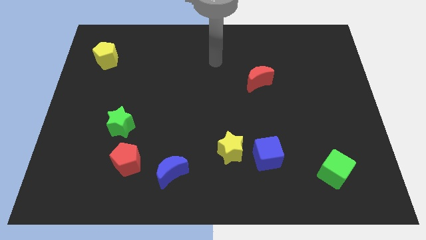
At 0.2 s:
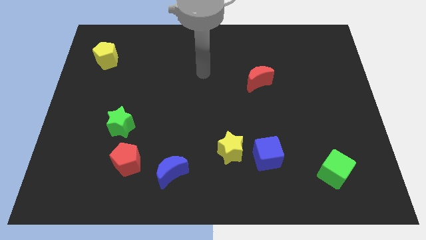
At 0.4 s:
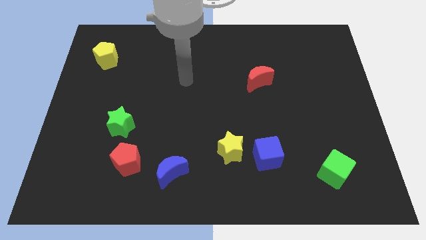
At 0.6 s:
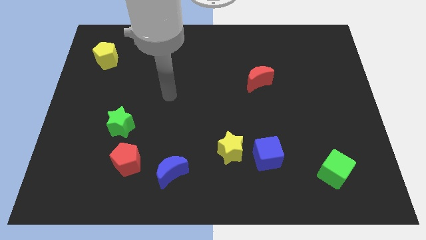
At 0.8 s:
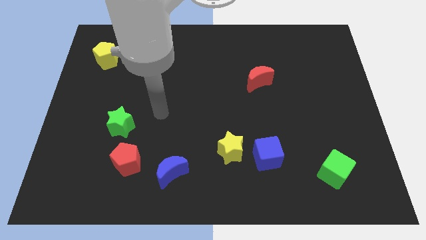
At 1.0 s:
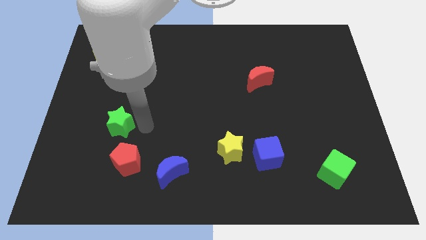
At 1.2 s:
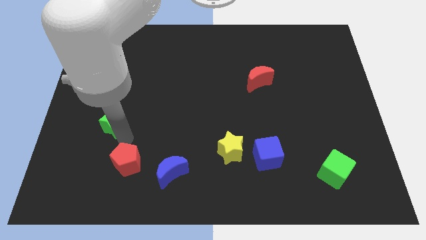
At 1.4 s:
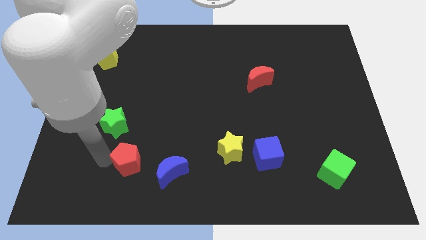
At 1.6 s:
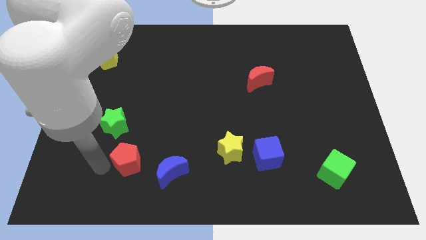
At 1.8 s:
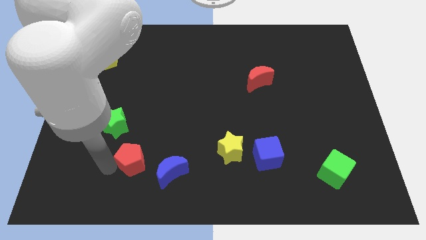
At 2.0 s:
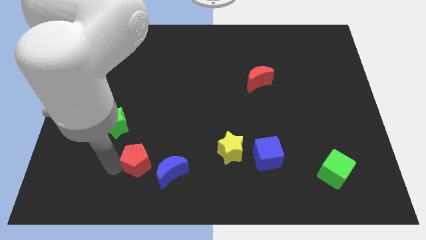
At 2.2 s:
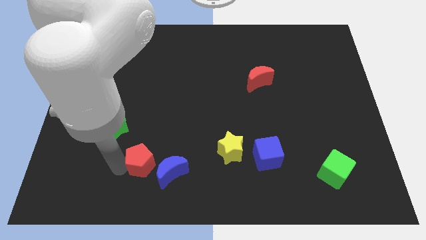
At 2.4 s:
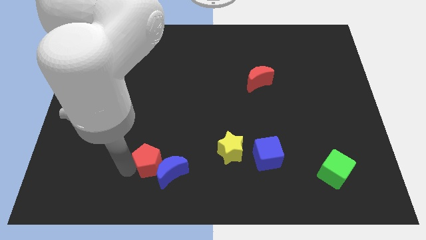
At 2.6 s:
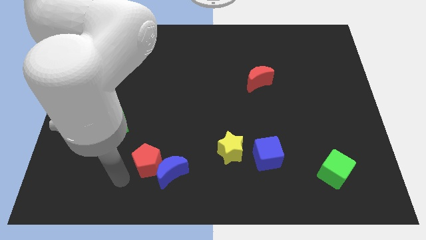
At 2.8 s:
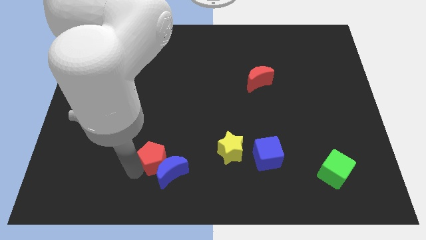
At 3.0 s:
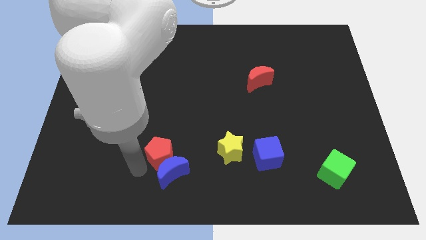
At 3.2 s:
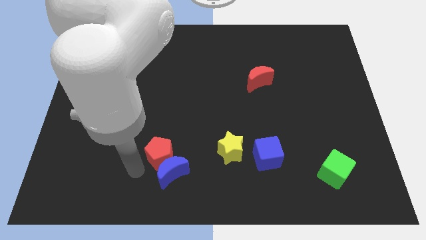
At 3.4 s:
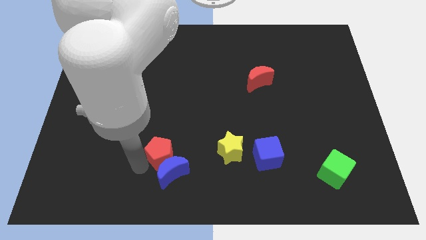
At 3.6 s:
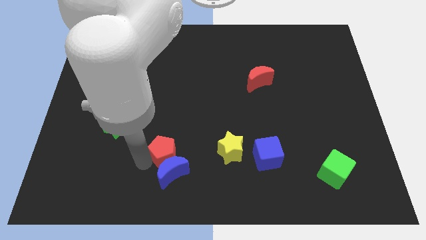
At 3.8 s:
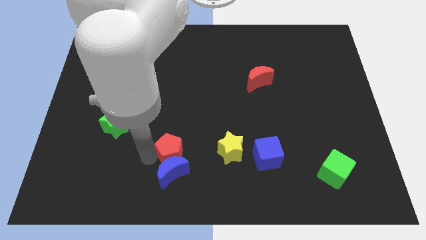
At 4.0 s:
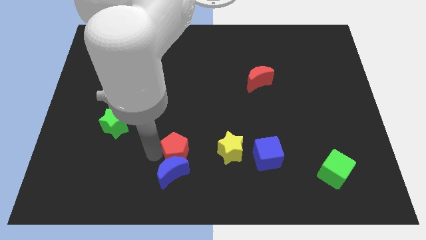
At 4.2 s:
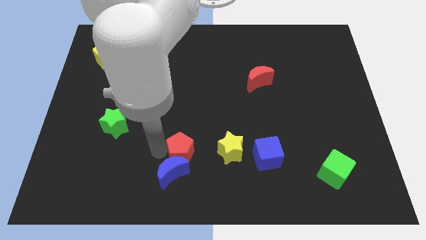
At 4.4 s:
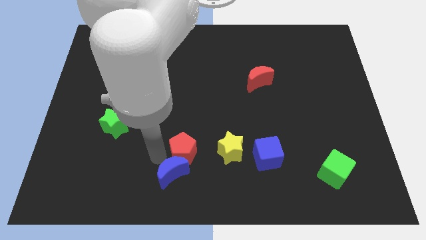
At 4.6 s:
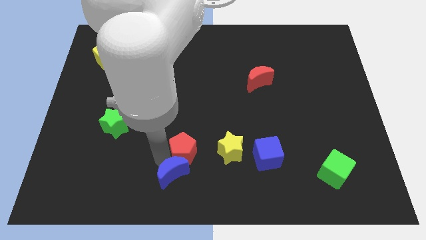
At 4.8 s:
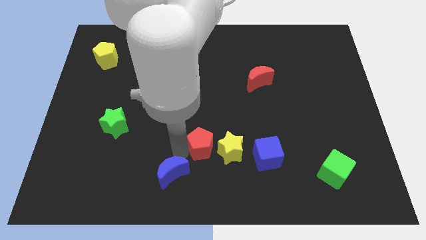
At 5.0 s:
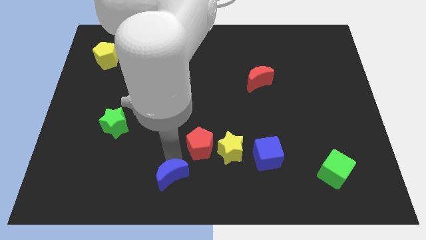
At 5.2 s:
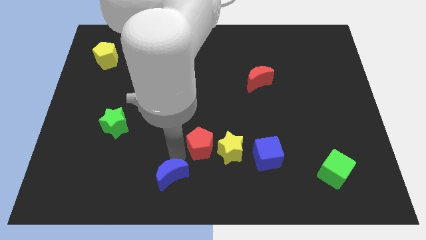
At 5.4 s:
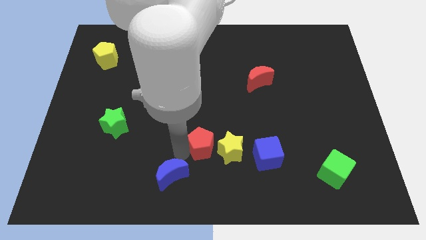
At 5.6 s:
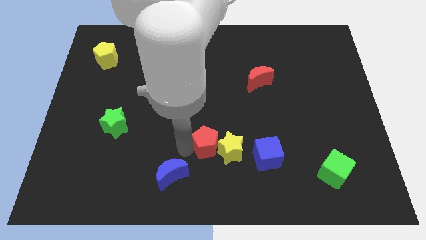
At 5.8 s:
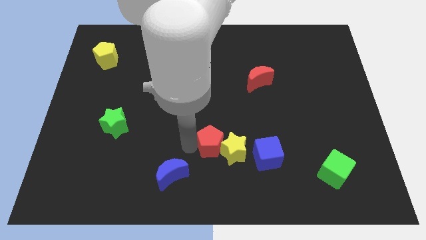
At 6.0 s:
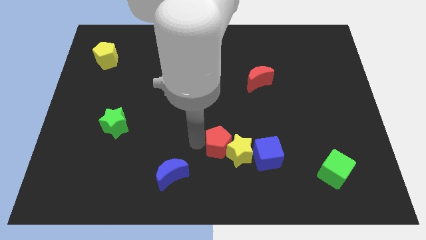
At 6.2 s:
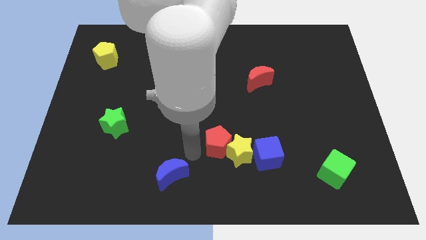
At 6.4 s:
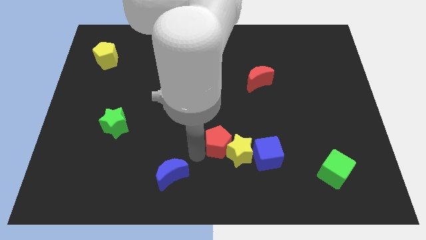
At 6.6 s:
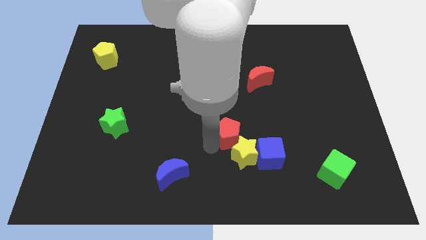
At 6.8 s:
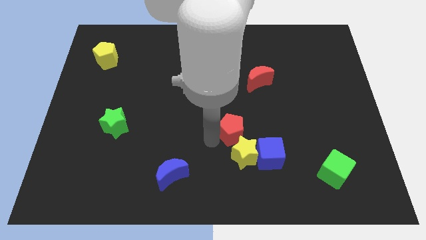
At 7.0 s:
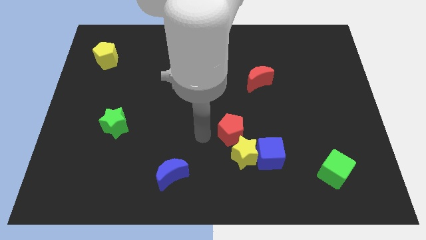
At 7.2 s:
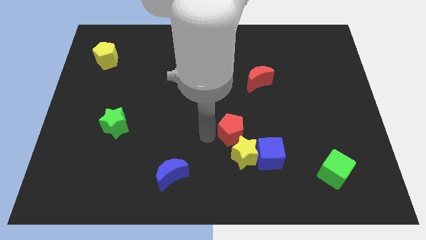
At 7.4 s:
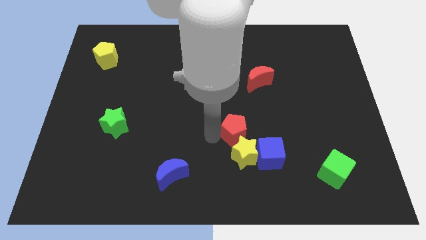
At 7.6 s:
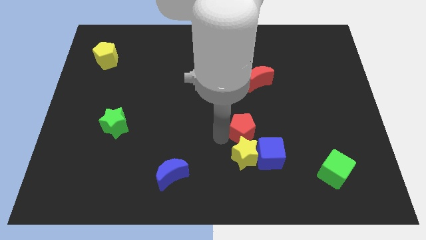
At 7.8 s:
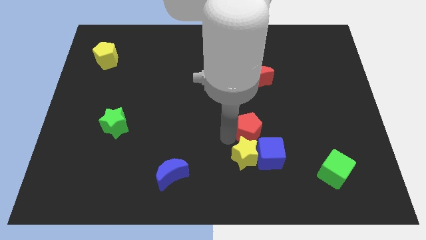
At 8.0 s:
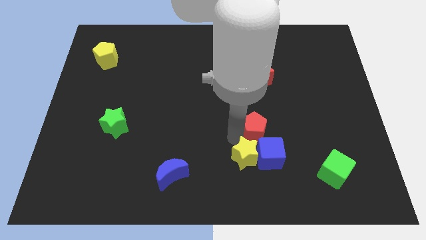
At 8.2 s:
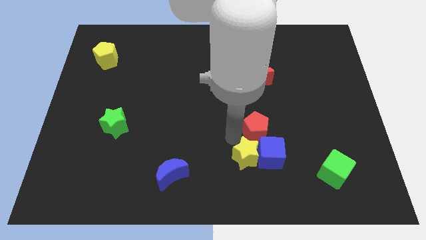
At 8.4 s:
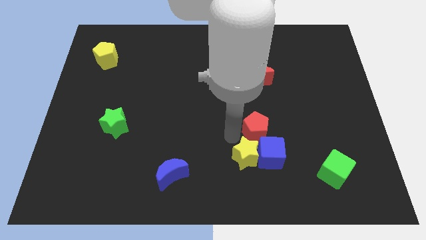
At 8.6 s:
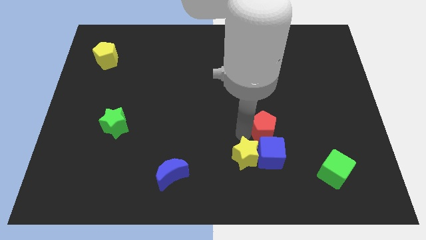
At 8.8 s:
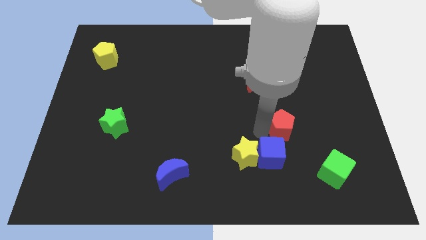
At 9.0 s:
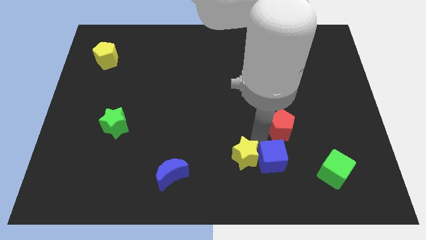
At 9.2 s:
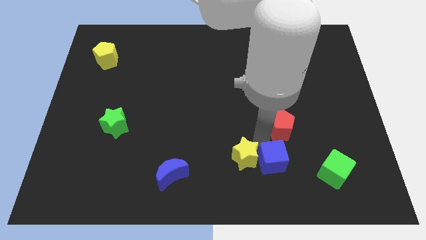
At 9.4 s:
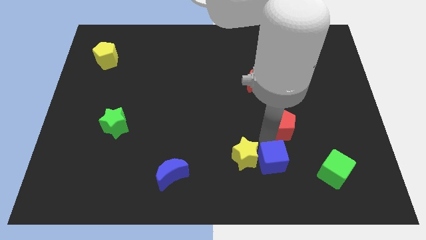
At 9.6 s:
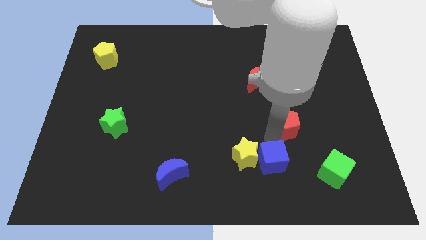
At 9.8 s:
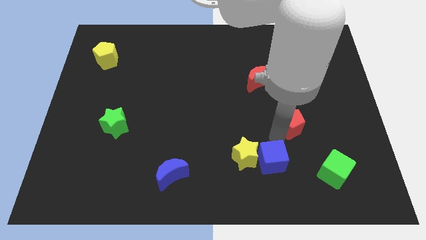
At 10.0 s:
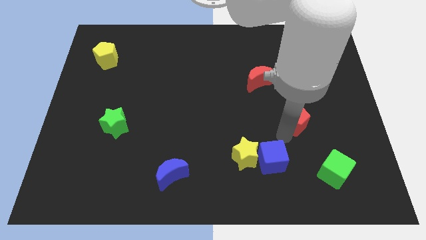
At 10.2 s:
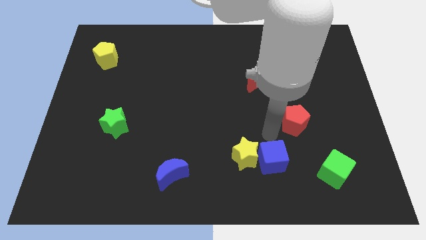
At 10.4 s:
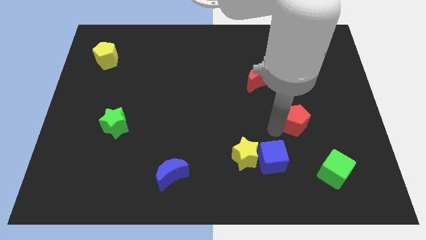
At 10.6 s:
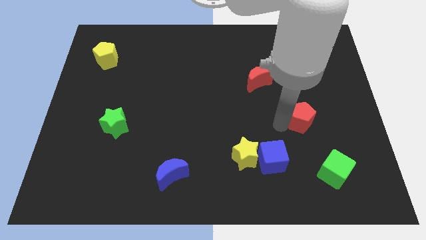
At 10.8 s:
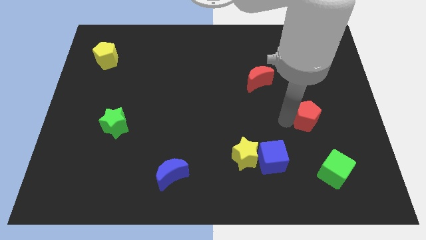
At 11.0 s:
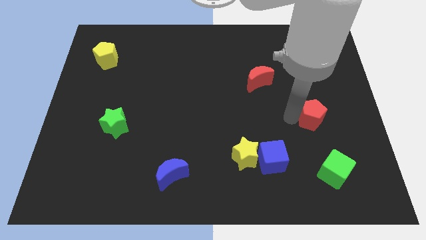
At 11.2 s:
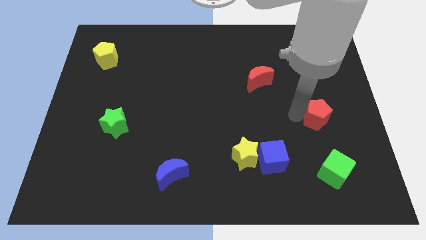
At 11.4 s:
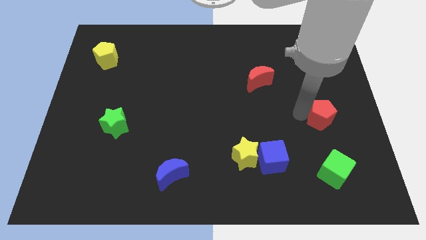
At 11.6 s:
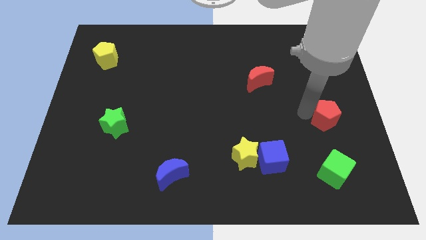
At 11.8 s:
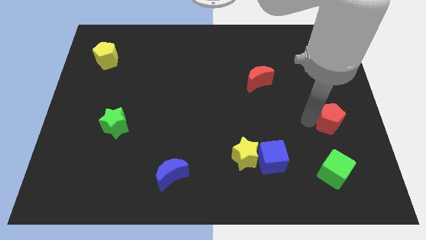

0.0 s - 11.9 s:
move the red pentagon to the right side of the board

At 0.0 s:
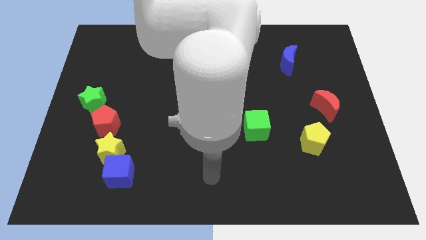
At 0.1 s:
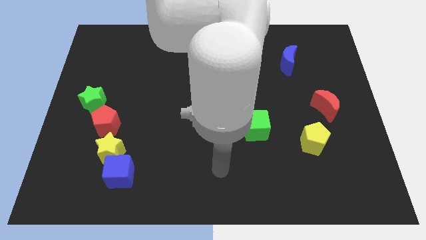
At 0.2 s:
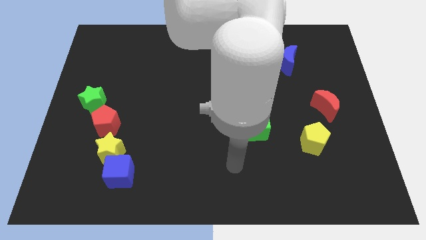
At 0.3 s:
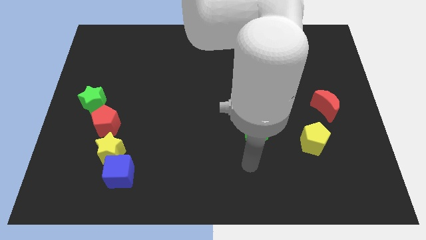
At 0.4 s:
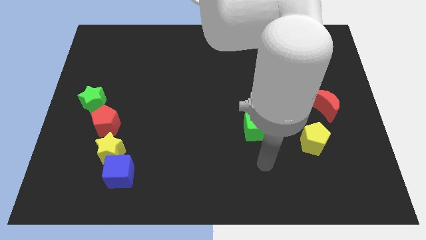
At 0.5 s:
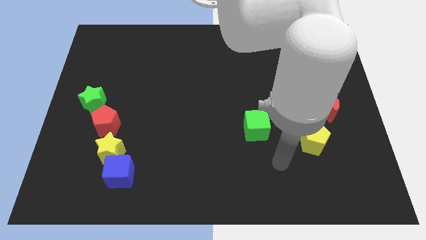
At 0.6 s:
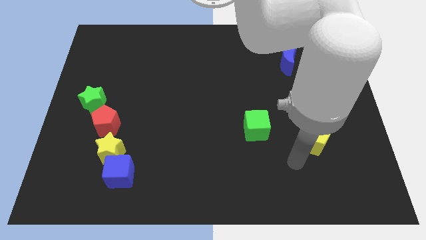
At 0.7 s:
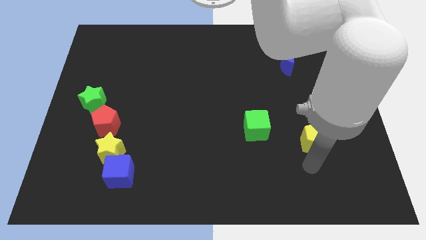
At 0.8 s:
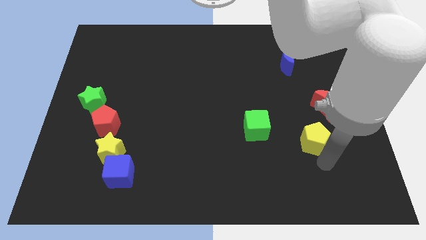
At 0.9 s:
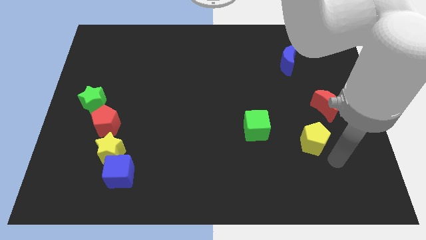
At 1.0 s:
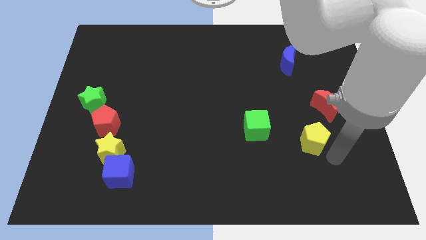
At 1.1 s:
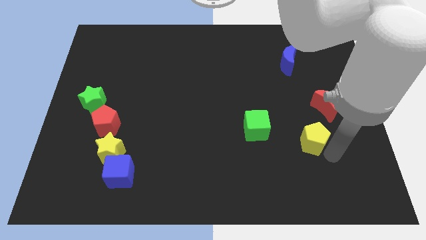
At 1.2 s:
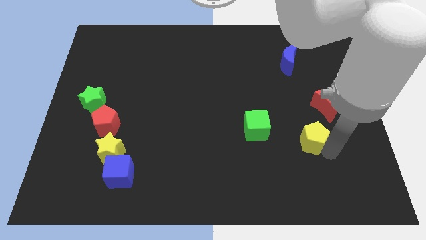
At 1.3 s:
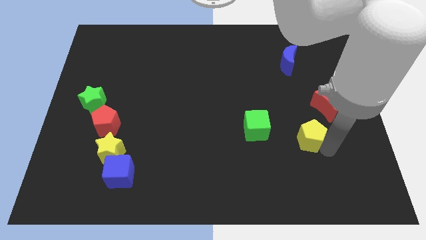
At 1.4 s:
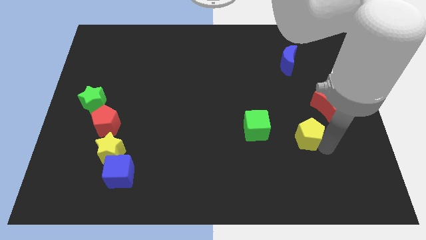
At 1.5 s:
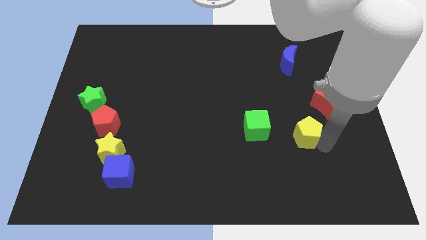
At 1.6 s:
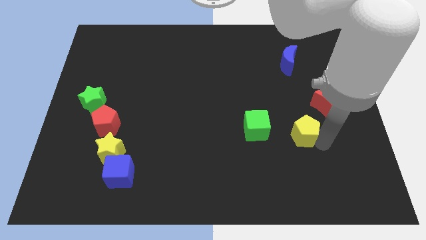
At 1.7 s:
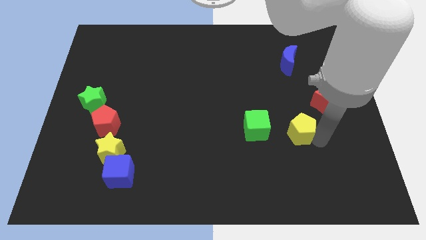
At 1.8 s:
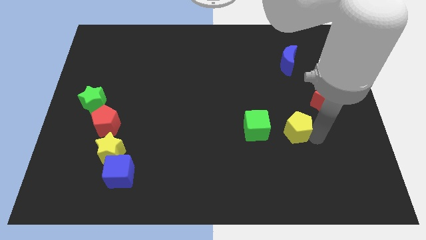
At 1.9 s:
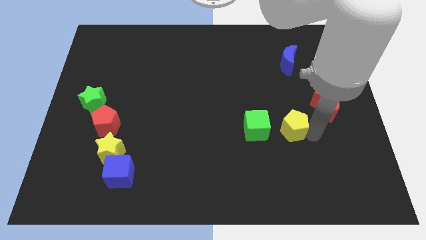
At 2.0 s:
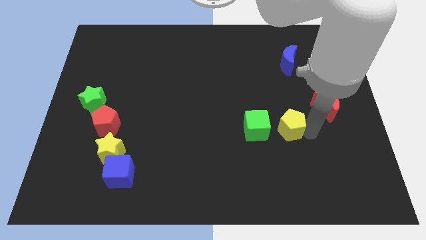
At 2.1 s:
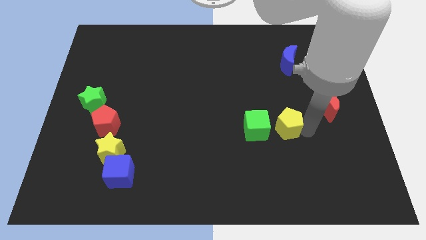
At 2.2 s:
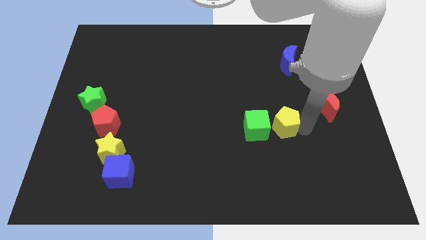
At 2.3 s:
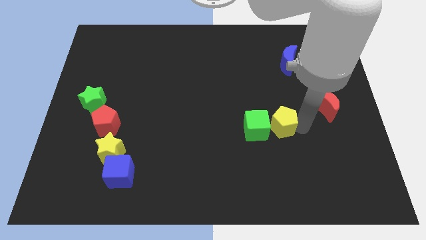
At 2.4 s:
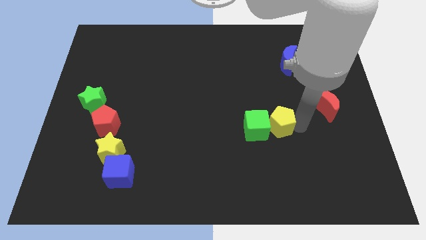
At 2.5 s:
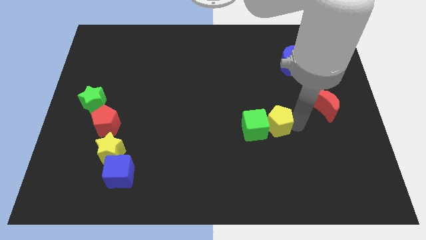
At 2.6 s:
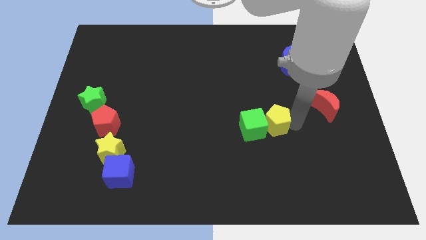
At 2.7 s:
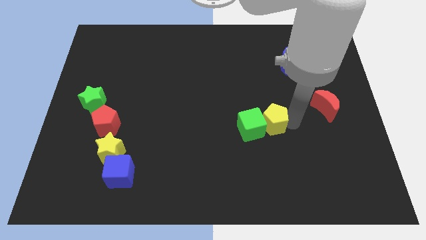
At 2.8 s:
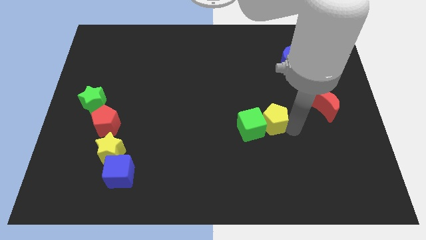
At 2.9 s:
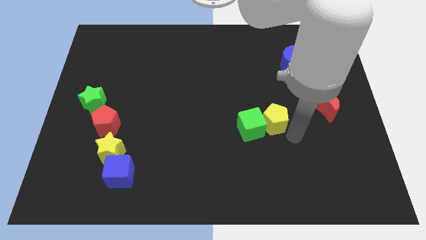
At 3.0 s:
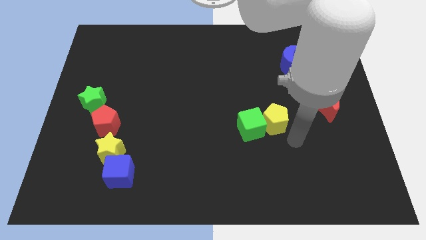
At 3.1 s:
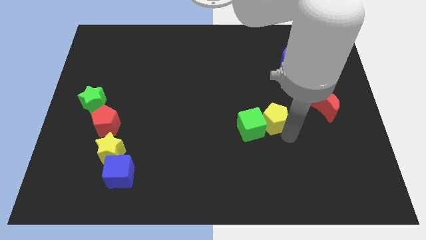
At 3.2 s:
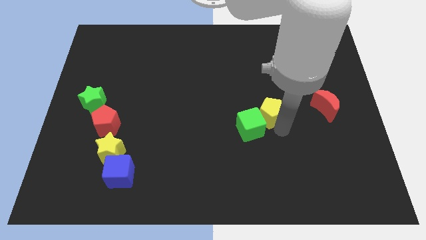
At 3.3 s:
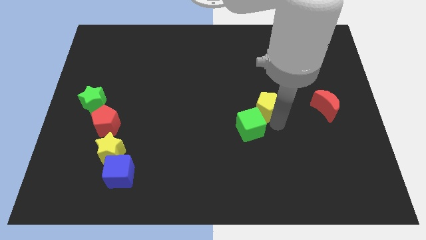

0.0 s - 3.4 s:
put the yellow pentagon to the center
